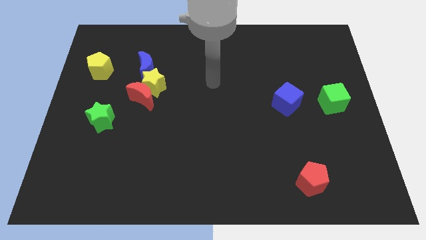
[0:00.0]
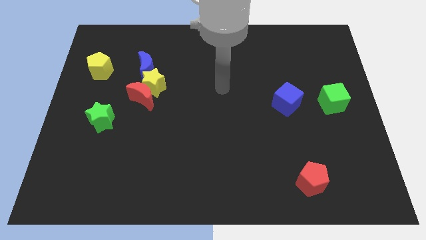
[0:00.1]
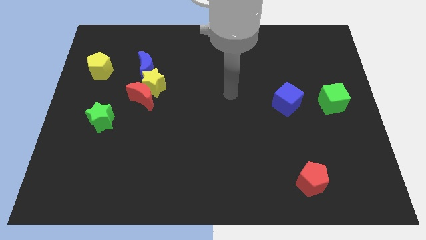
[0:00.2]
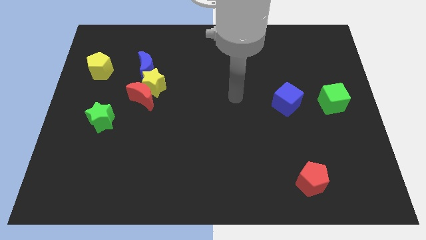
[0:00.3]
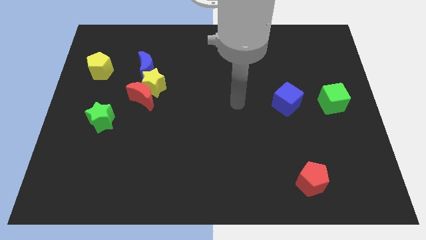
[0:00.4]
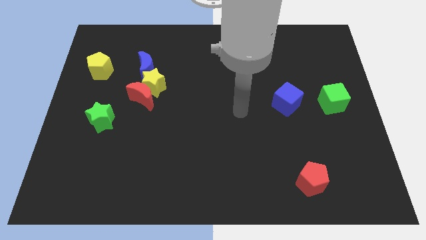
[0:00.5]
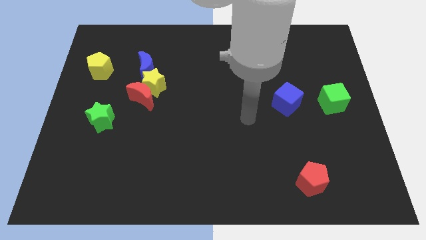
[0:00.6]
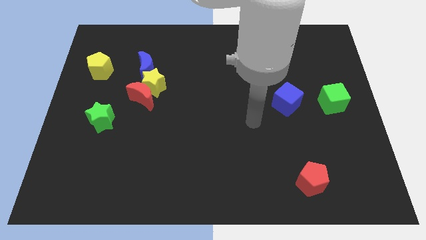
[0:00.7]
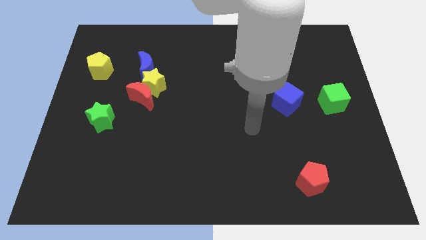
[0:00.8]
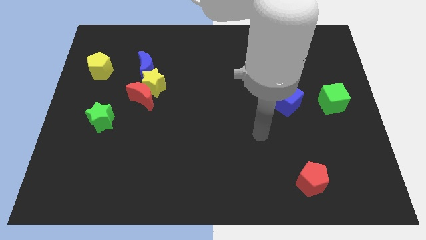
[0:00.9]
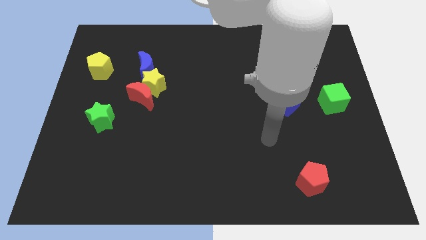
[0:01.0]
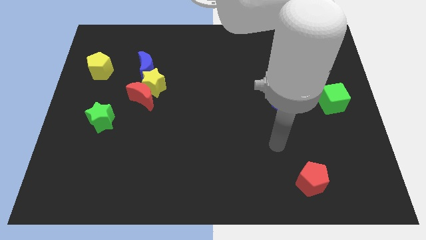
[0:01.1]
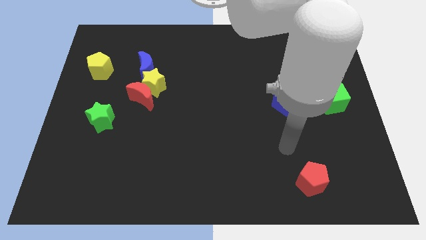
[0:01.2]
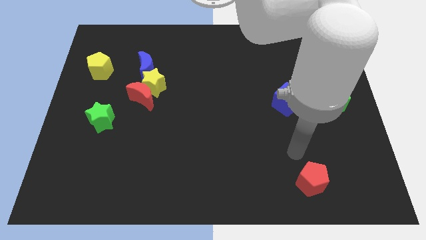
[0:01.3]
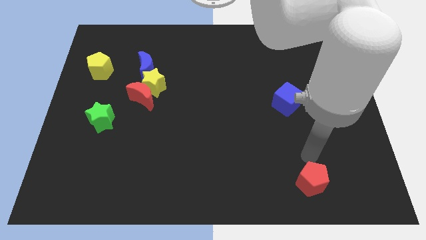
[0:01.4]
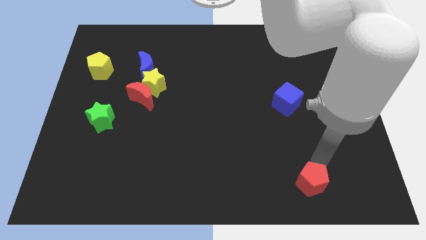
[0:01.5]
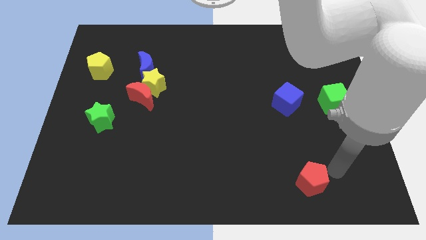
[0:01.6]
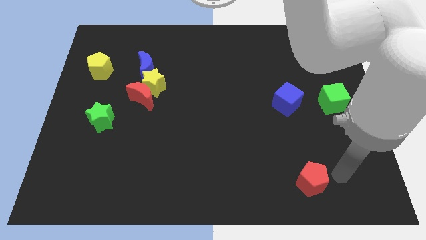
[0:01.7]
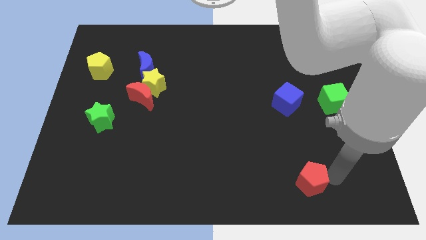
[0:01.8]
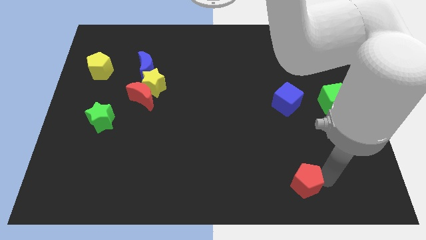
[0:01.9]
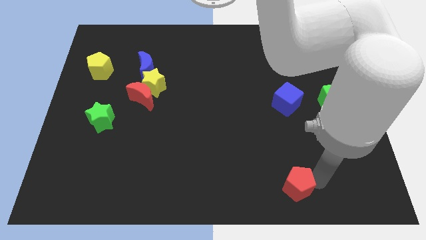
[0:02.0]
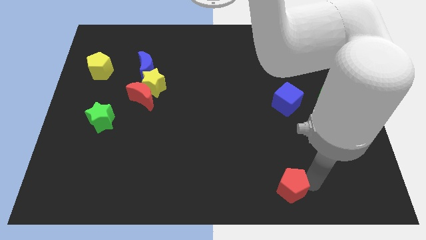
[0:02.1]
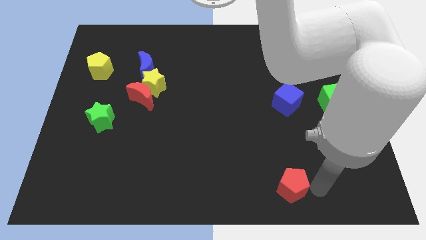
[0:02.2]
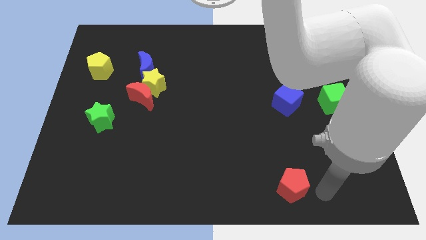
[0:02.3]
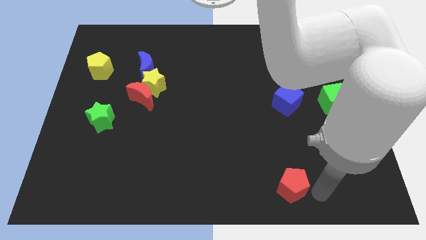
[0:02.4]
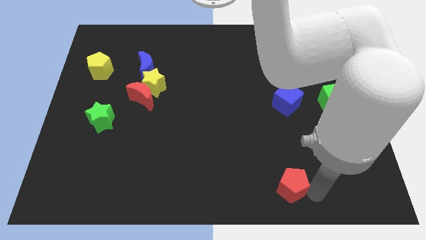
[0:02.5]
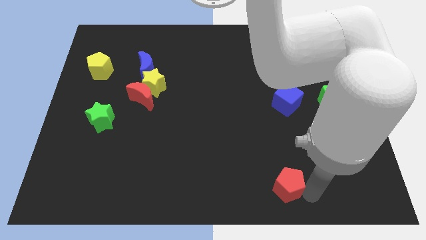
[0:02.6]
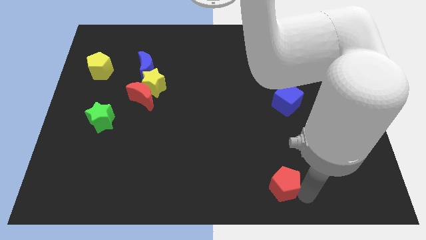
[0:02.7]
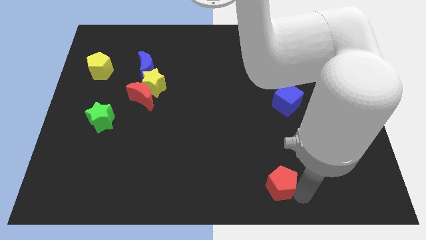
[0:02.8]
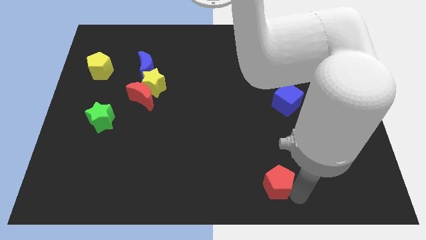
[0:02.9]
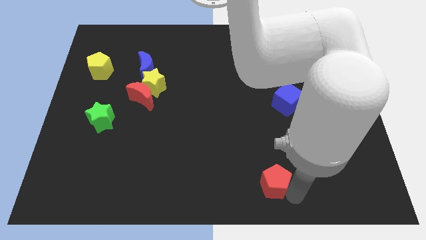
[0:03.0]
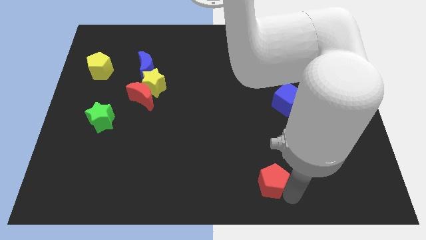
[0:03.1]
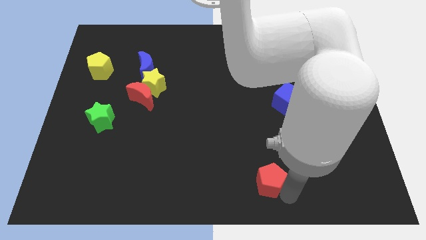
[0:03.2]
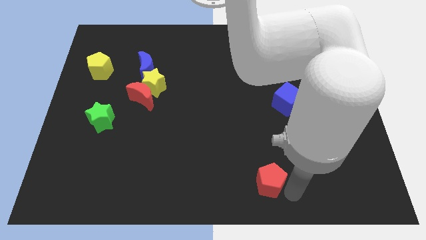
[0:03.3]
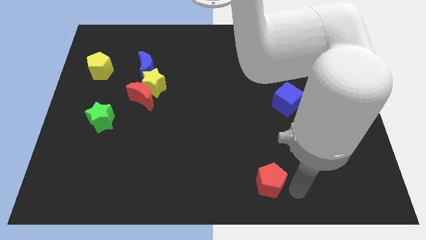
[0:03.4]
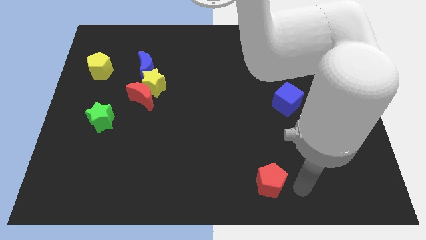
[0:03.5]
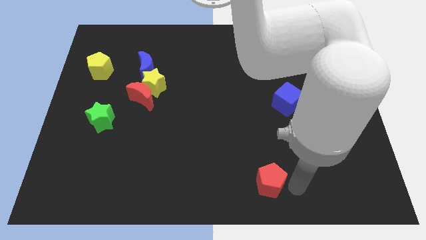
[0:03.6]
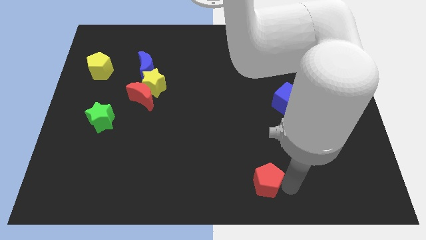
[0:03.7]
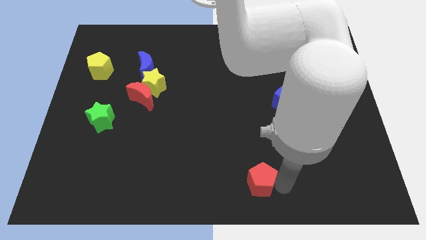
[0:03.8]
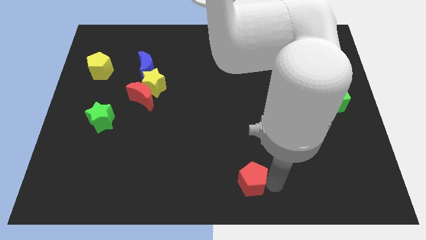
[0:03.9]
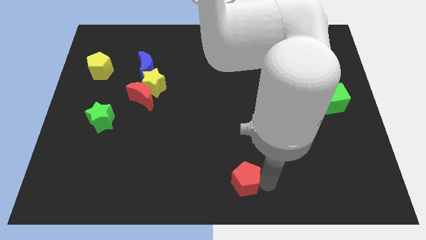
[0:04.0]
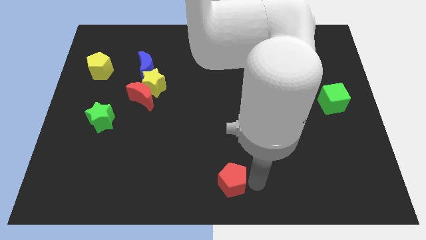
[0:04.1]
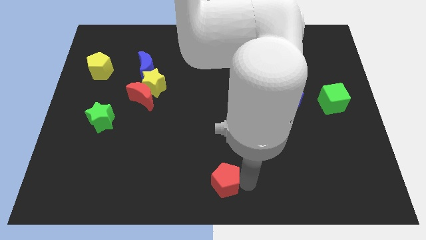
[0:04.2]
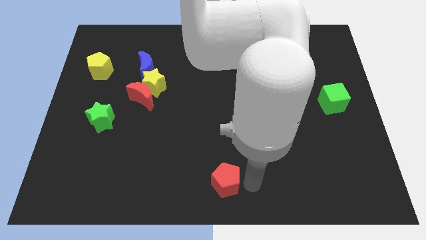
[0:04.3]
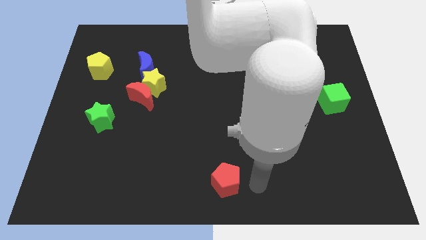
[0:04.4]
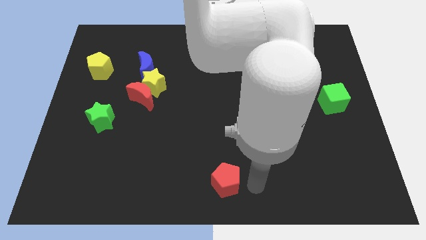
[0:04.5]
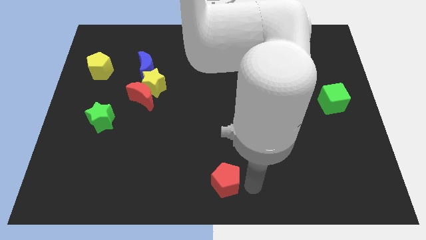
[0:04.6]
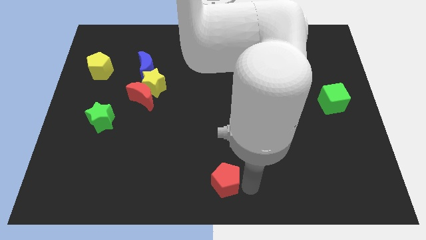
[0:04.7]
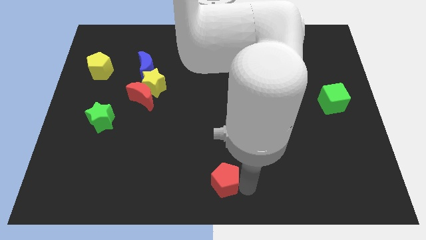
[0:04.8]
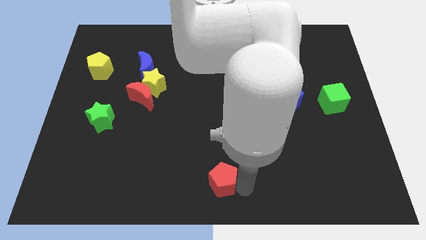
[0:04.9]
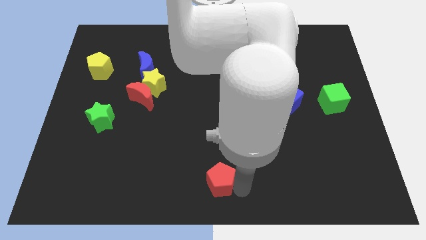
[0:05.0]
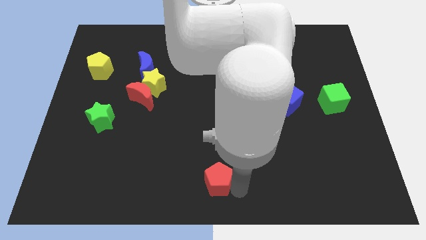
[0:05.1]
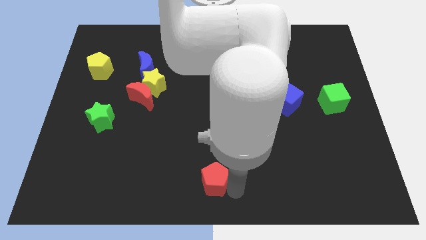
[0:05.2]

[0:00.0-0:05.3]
slide the red pentagon to the left

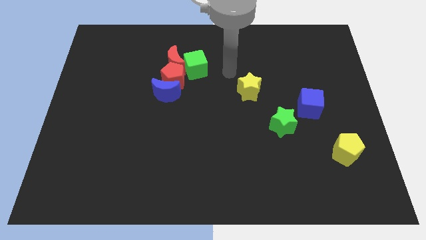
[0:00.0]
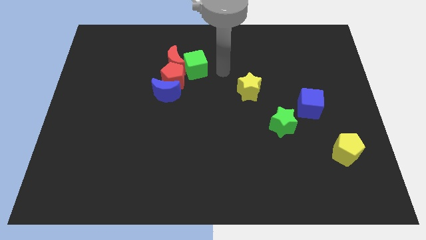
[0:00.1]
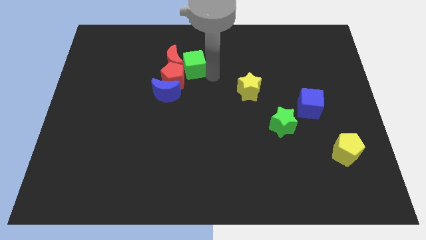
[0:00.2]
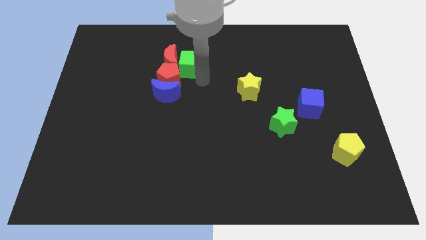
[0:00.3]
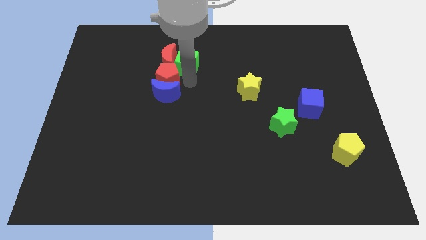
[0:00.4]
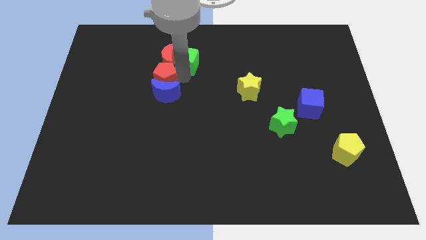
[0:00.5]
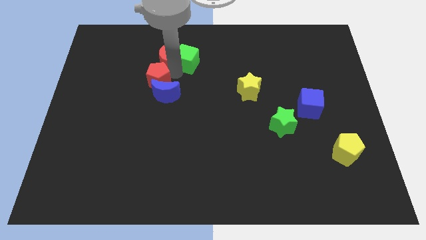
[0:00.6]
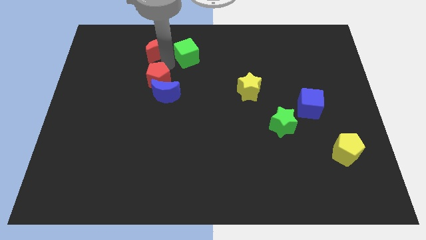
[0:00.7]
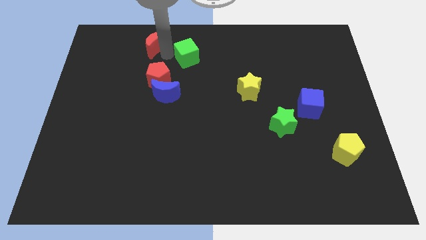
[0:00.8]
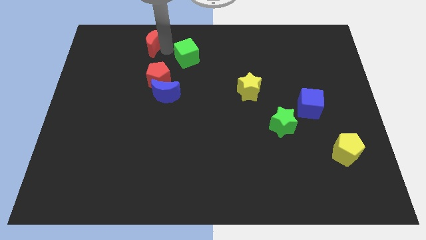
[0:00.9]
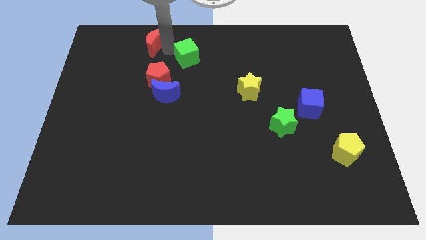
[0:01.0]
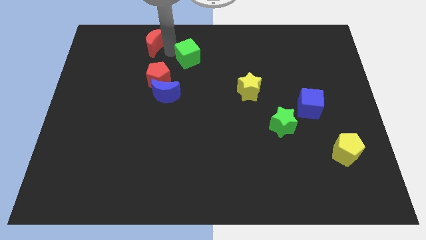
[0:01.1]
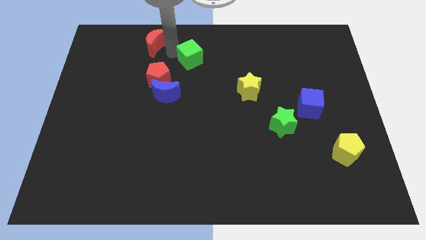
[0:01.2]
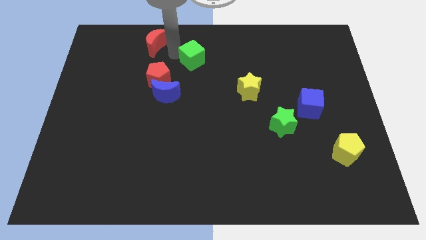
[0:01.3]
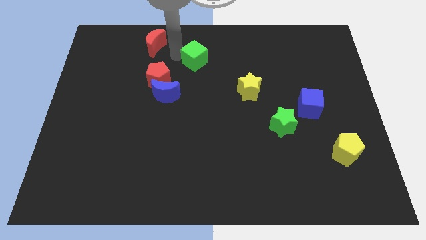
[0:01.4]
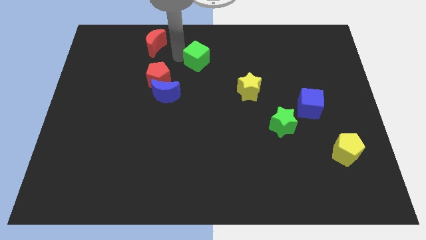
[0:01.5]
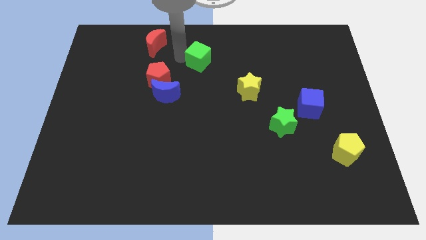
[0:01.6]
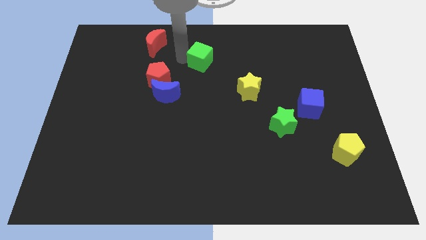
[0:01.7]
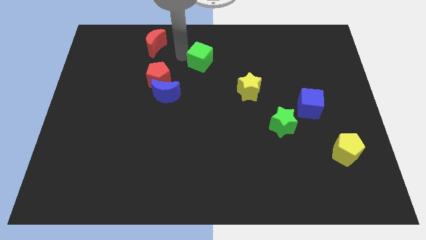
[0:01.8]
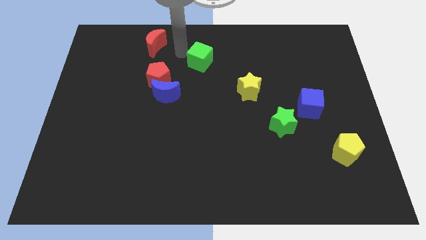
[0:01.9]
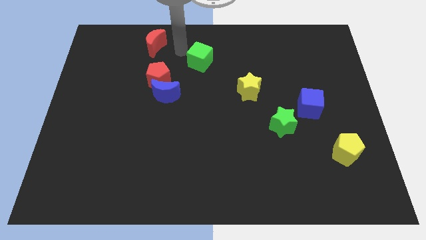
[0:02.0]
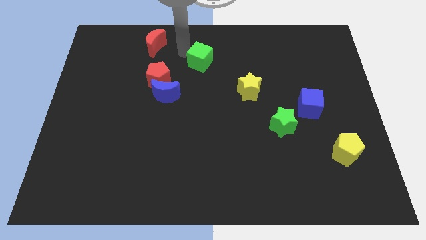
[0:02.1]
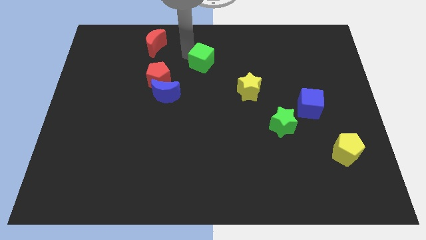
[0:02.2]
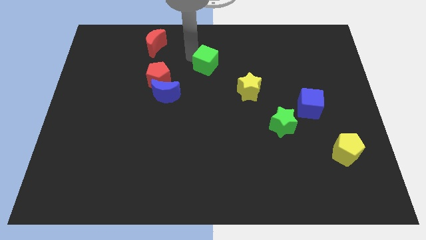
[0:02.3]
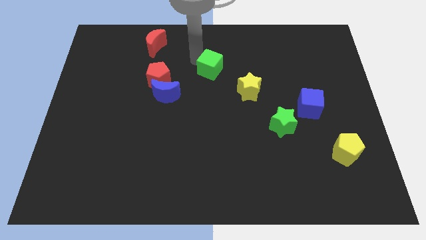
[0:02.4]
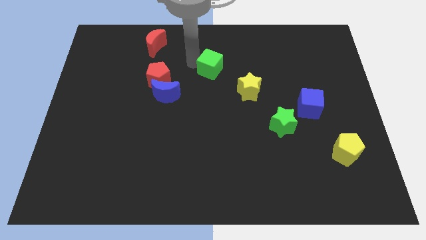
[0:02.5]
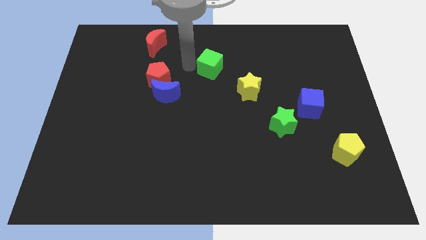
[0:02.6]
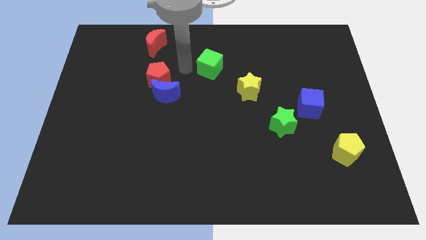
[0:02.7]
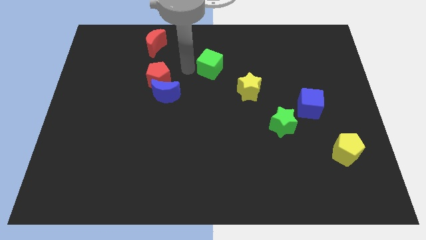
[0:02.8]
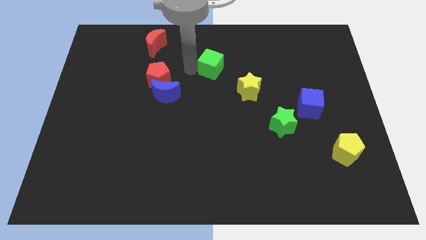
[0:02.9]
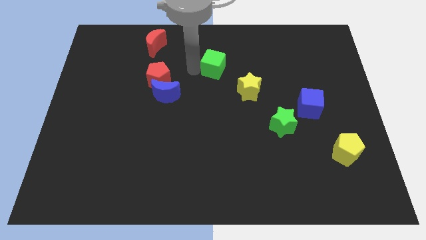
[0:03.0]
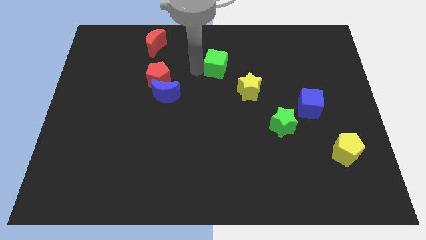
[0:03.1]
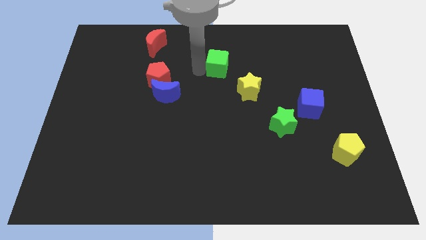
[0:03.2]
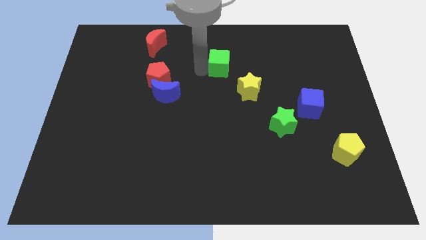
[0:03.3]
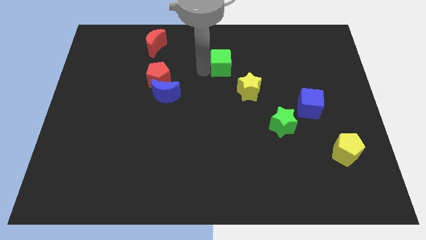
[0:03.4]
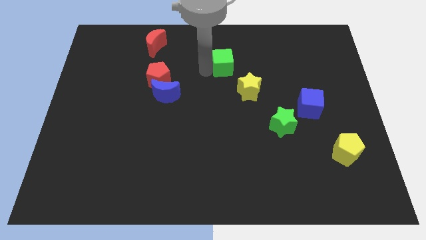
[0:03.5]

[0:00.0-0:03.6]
slightly push the green cube to the right
